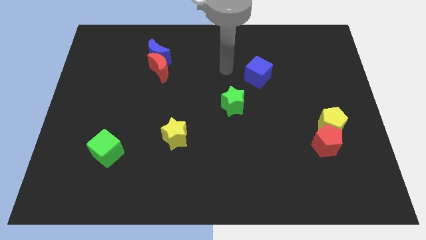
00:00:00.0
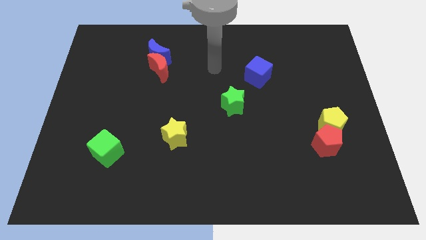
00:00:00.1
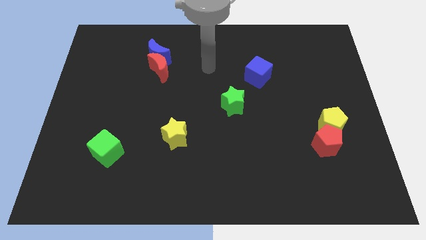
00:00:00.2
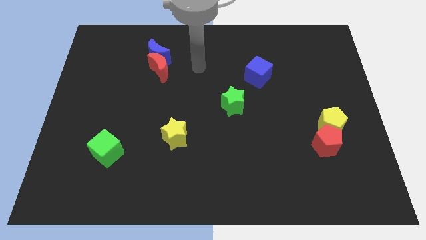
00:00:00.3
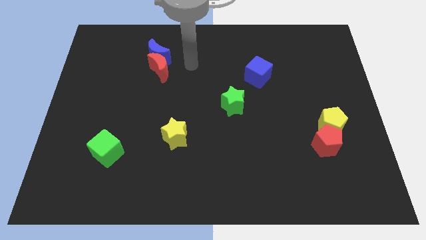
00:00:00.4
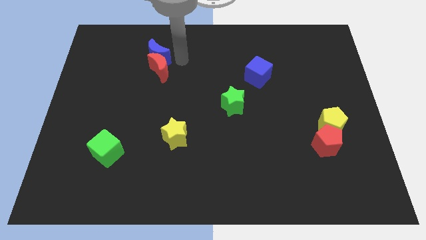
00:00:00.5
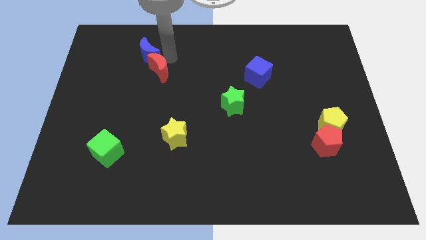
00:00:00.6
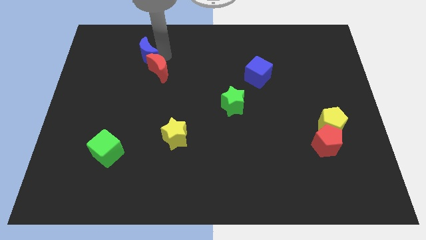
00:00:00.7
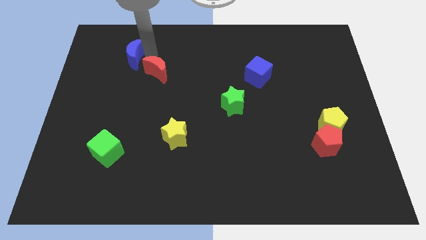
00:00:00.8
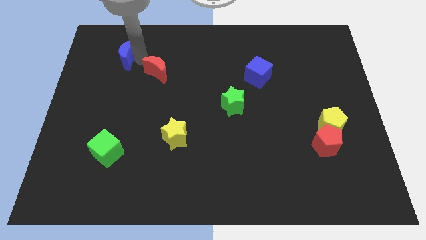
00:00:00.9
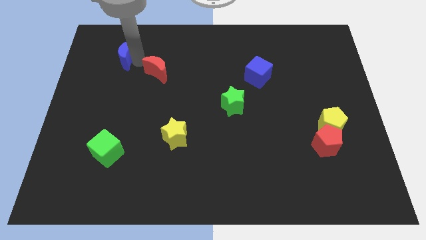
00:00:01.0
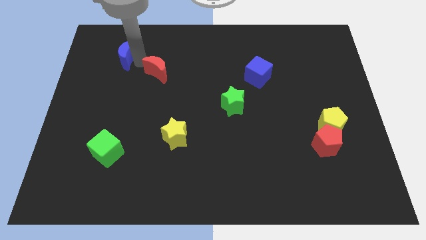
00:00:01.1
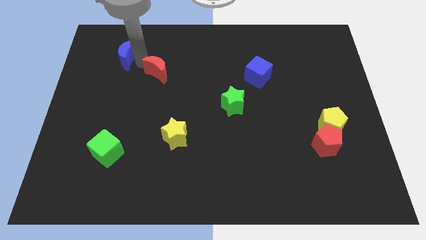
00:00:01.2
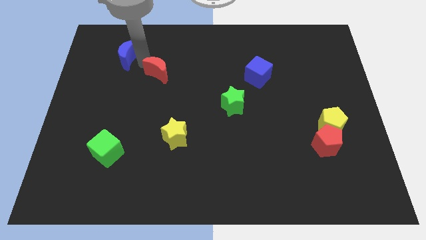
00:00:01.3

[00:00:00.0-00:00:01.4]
pull the red moon apart from the blue moon

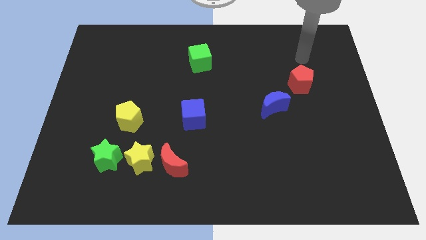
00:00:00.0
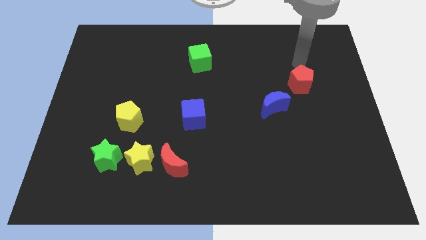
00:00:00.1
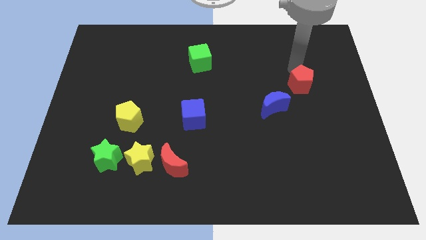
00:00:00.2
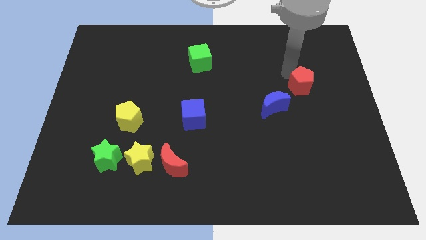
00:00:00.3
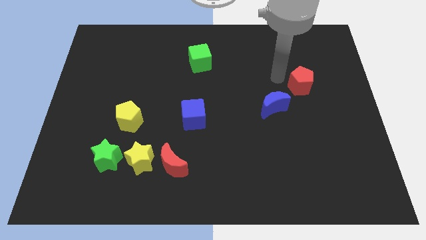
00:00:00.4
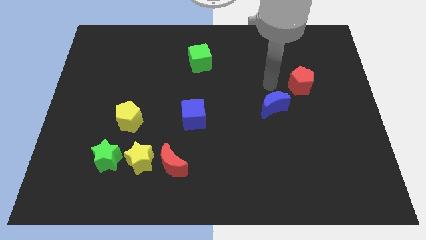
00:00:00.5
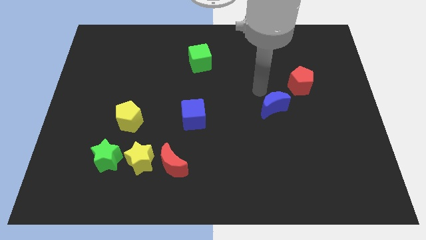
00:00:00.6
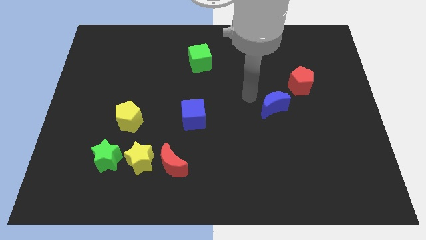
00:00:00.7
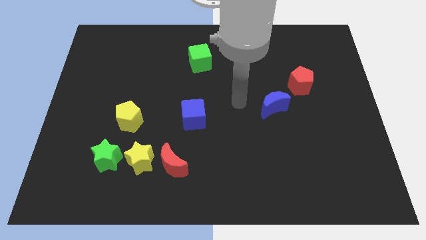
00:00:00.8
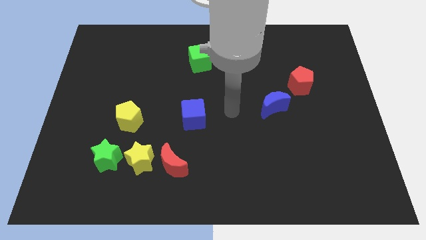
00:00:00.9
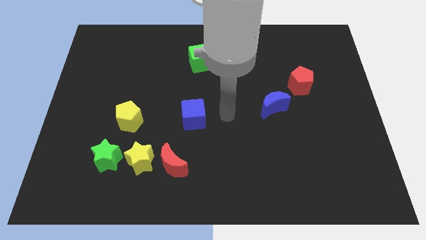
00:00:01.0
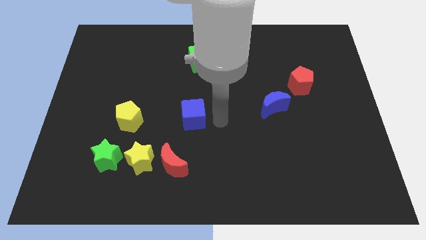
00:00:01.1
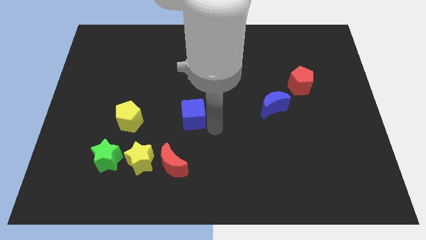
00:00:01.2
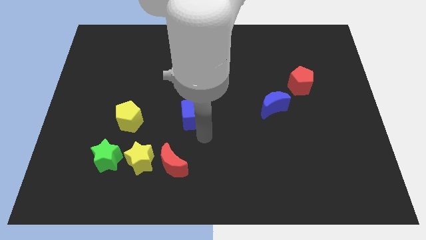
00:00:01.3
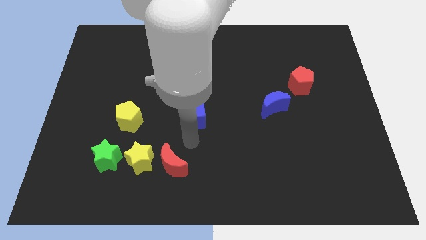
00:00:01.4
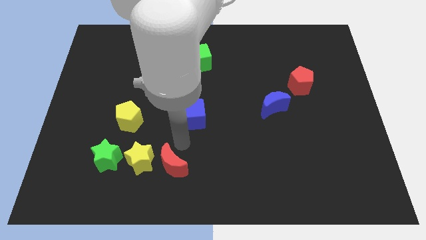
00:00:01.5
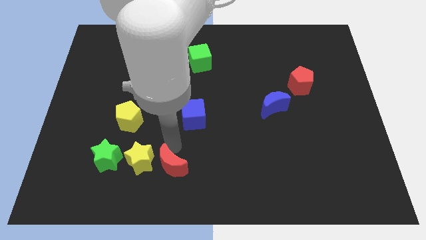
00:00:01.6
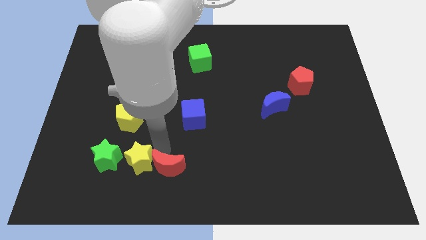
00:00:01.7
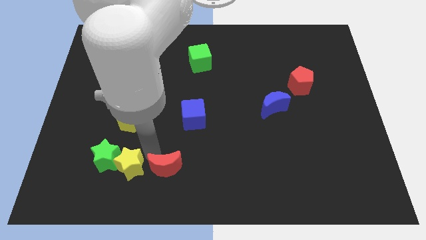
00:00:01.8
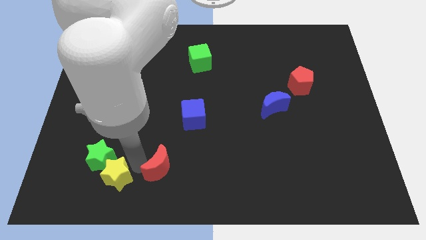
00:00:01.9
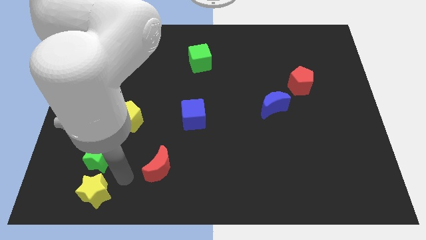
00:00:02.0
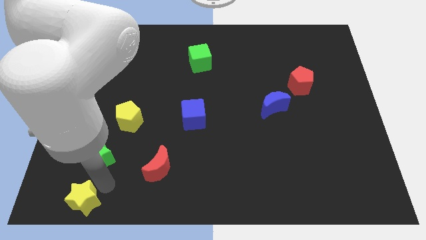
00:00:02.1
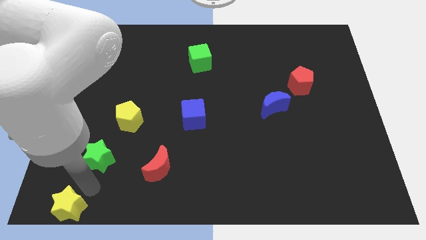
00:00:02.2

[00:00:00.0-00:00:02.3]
separate the green star from the yellow star

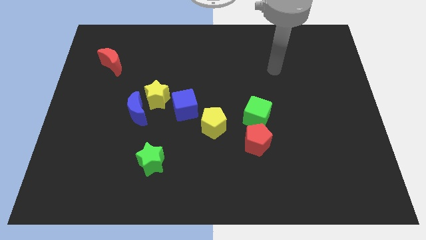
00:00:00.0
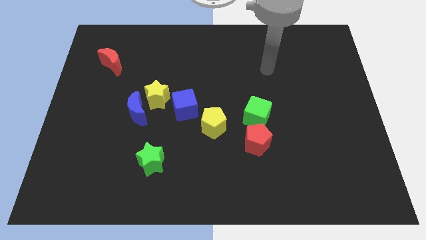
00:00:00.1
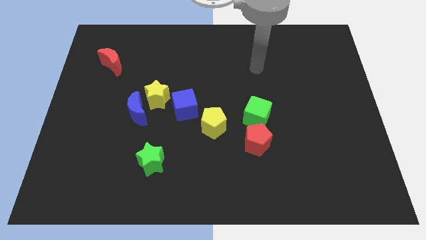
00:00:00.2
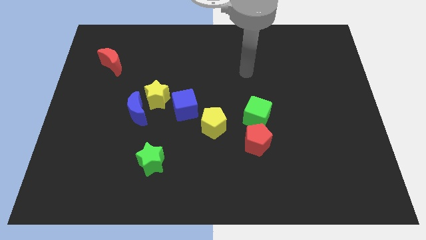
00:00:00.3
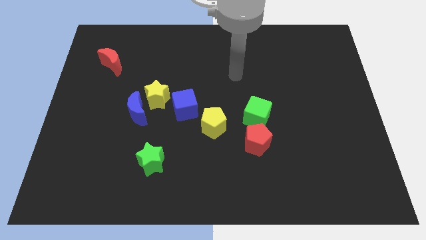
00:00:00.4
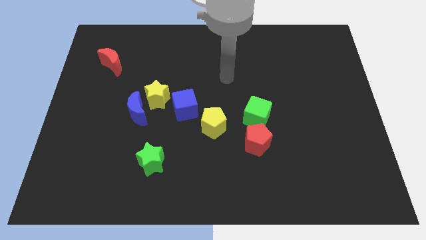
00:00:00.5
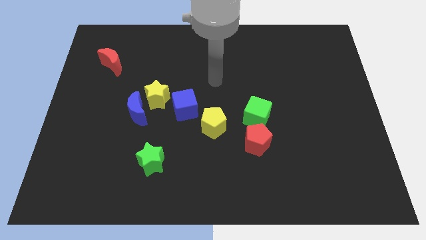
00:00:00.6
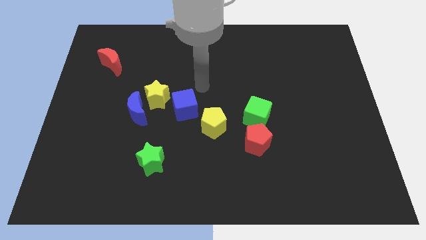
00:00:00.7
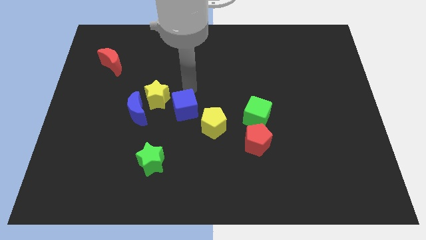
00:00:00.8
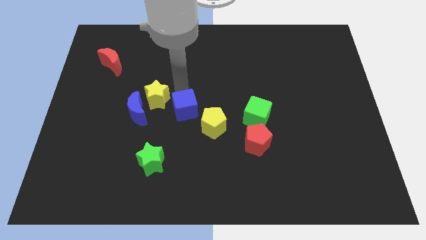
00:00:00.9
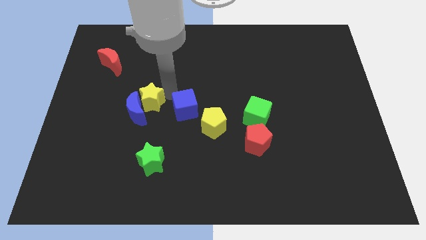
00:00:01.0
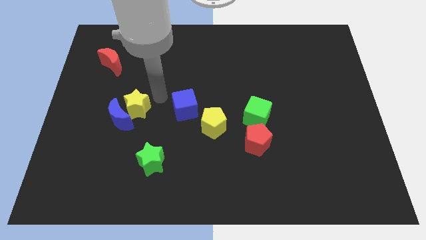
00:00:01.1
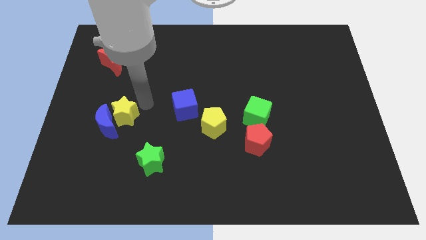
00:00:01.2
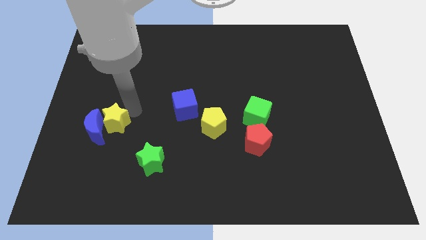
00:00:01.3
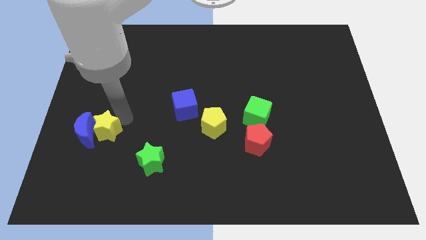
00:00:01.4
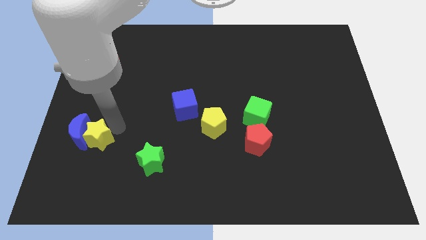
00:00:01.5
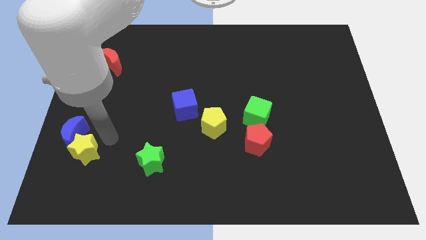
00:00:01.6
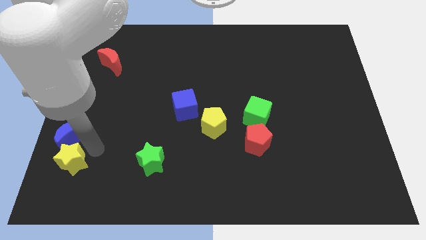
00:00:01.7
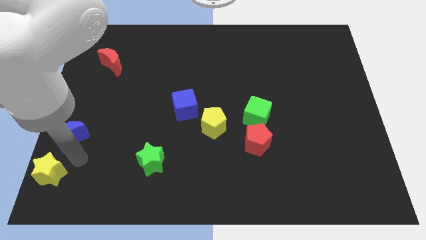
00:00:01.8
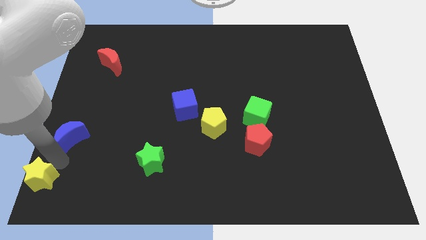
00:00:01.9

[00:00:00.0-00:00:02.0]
pull the blue moon apart from the yellow star

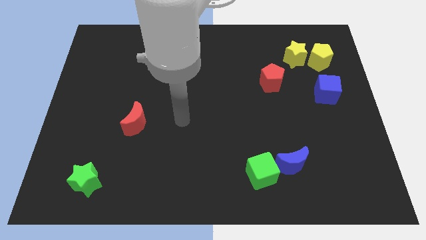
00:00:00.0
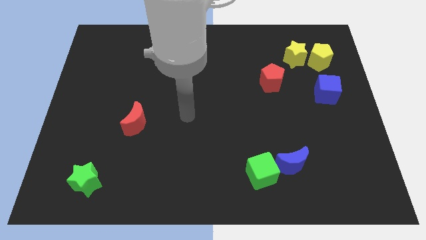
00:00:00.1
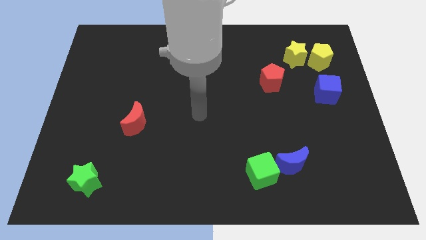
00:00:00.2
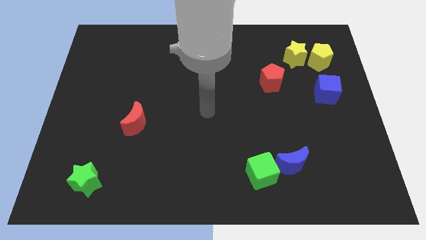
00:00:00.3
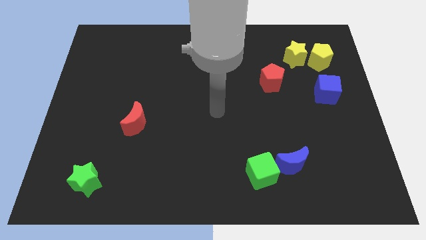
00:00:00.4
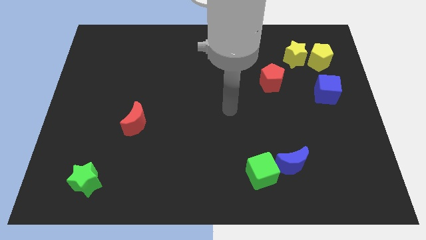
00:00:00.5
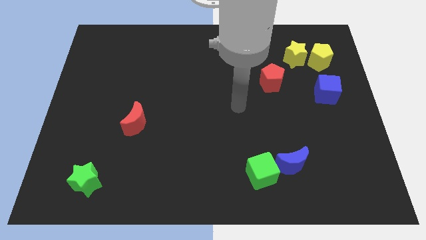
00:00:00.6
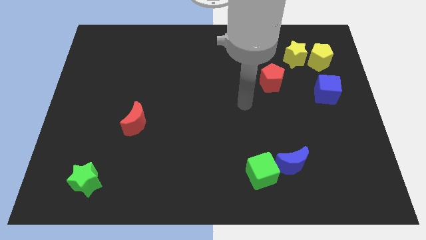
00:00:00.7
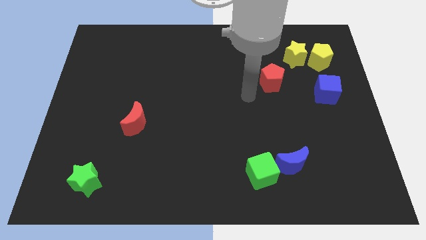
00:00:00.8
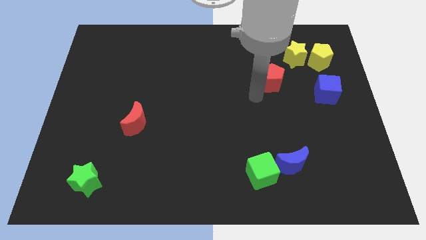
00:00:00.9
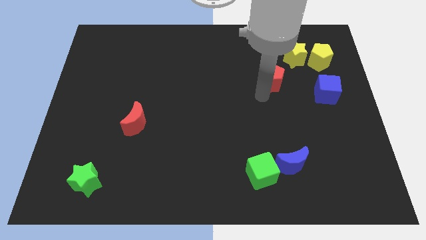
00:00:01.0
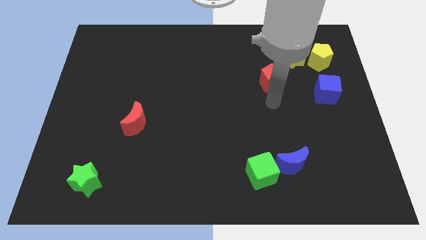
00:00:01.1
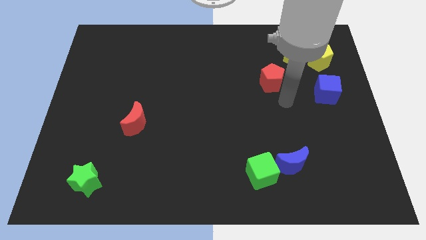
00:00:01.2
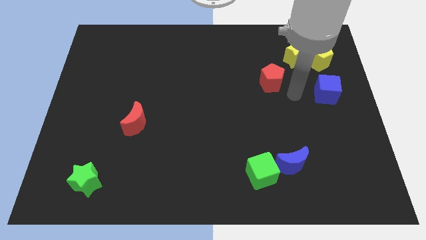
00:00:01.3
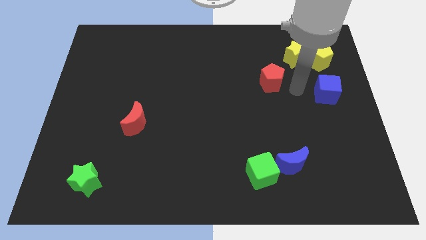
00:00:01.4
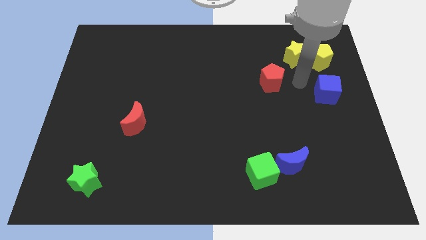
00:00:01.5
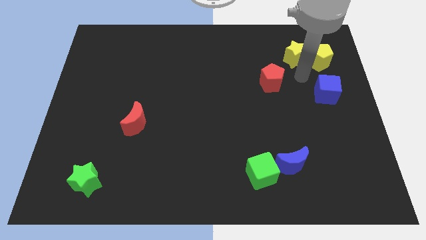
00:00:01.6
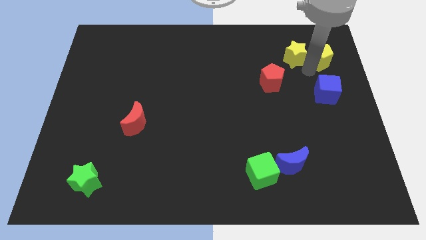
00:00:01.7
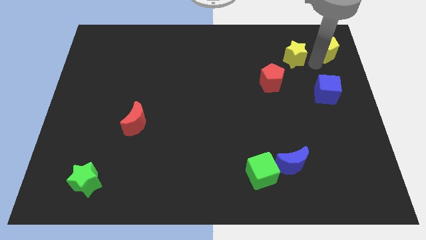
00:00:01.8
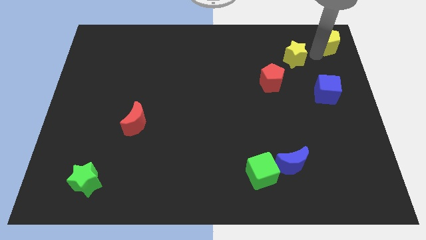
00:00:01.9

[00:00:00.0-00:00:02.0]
move the yellow star away from the yellow pentagon

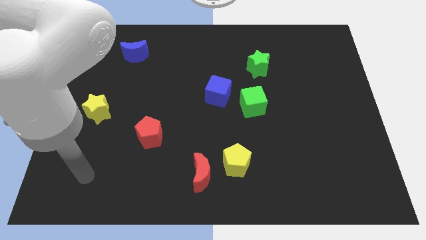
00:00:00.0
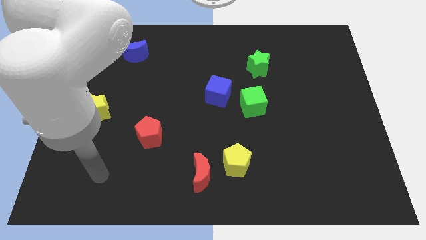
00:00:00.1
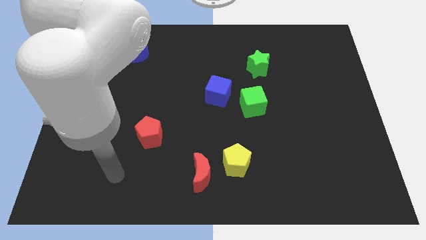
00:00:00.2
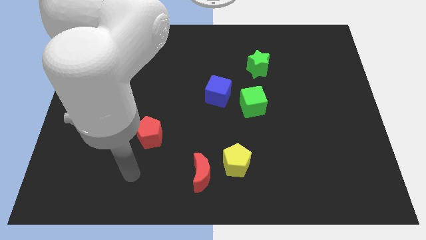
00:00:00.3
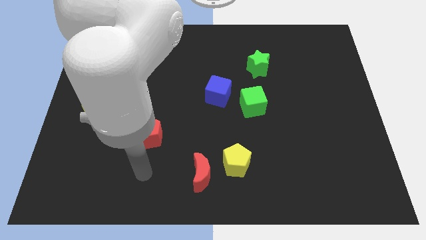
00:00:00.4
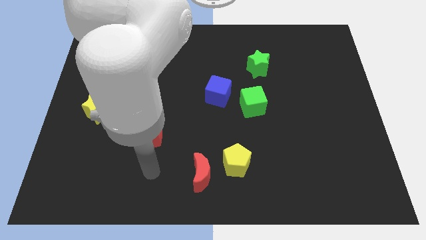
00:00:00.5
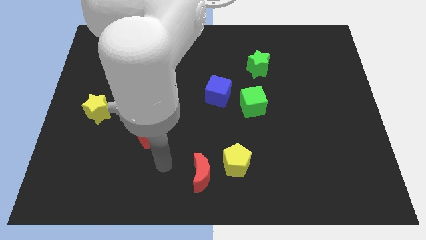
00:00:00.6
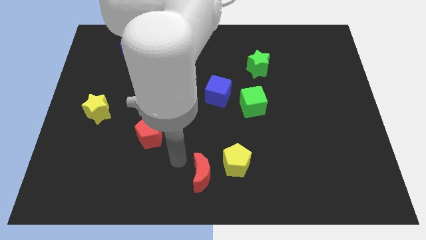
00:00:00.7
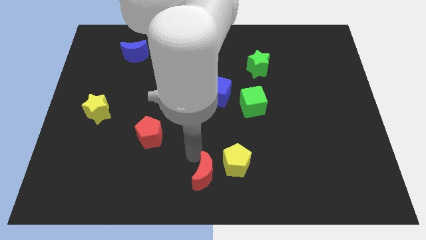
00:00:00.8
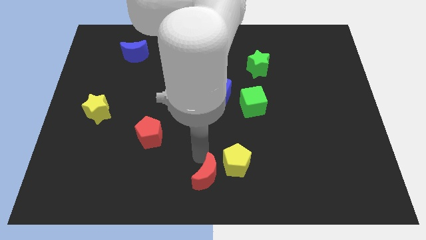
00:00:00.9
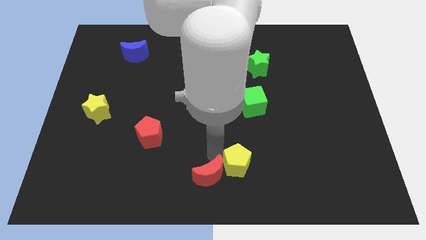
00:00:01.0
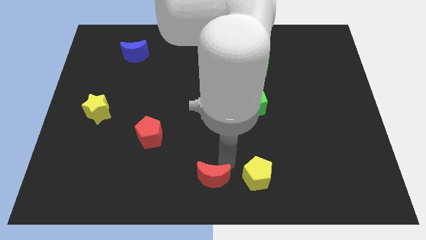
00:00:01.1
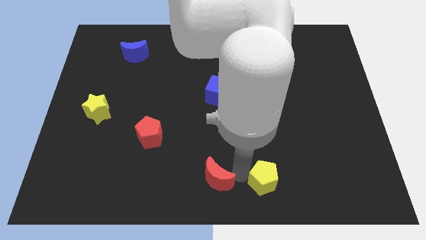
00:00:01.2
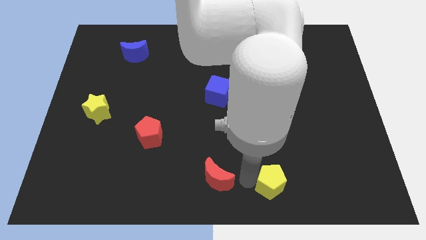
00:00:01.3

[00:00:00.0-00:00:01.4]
move the red moon away from the yellow pentagon

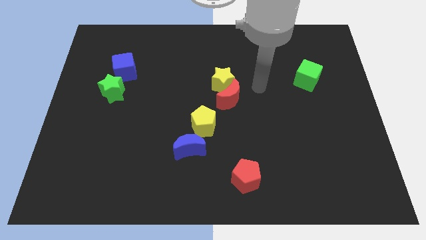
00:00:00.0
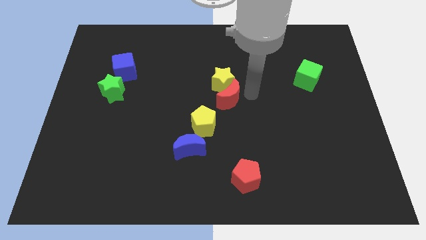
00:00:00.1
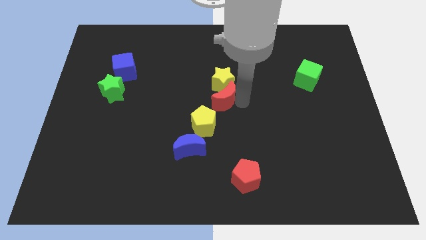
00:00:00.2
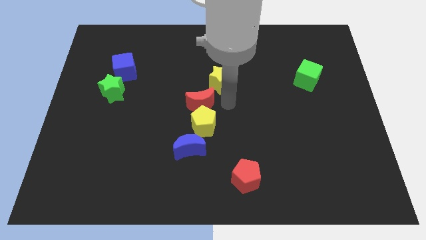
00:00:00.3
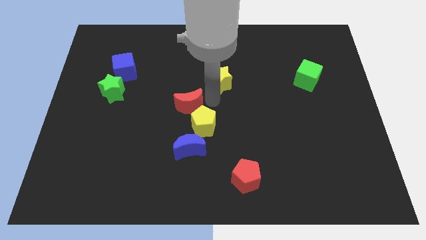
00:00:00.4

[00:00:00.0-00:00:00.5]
move the yellow star away from the red moon
